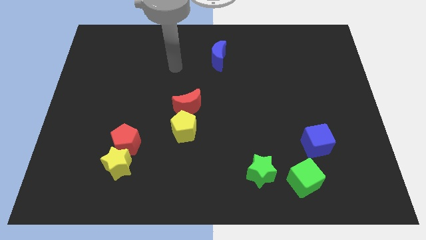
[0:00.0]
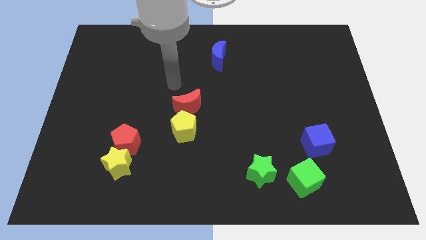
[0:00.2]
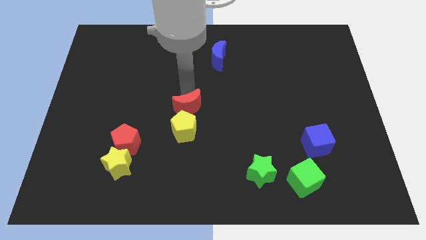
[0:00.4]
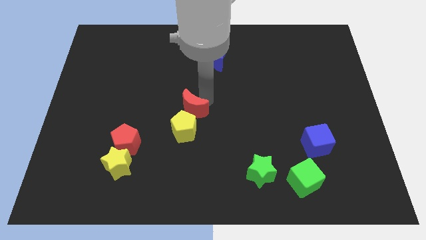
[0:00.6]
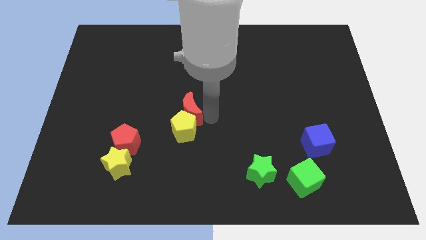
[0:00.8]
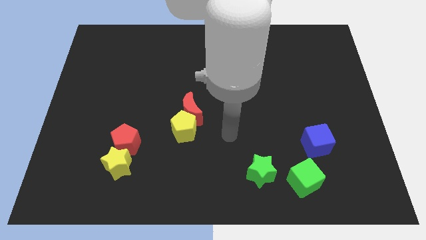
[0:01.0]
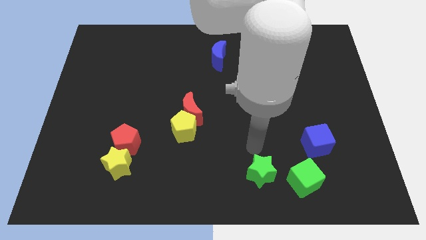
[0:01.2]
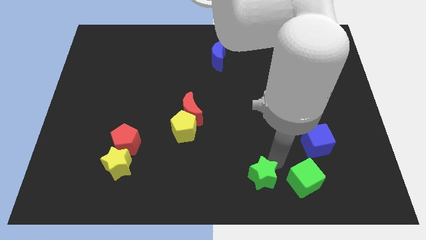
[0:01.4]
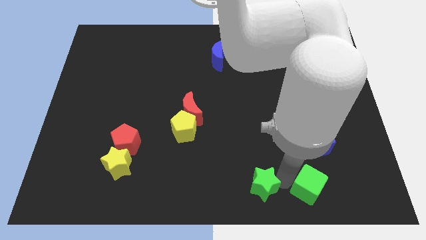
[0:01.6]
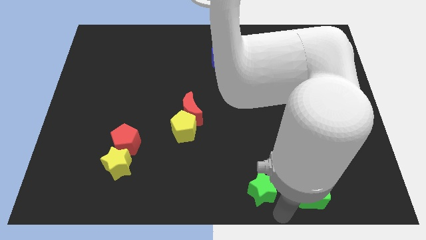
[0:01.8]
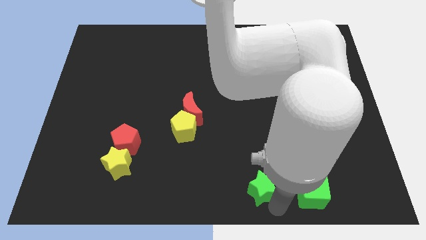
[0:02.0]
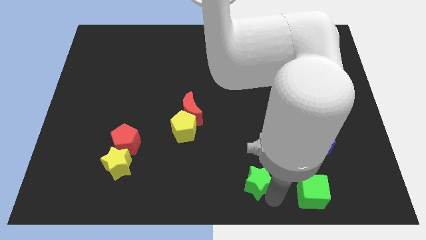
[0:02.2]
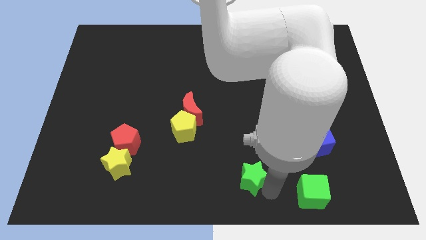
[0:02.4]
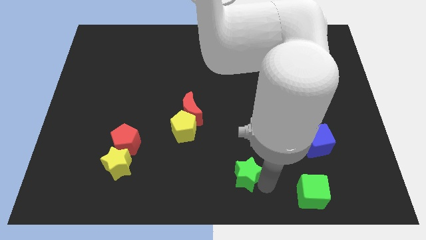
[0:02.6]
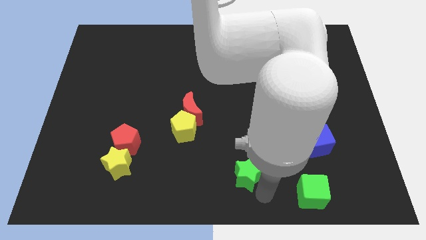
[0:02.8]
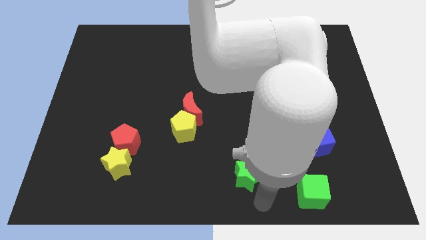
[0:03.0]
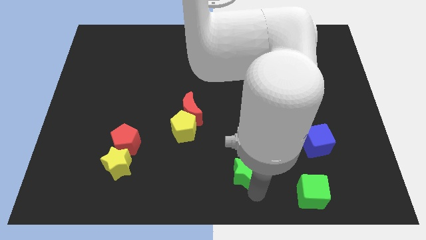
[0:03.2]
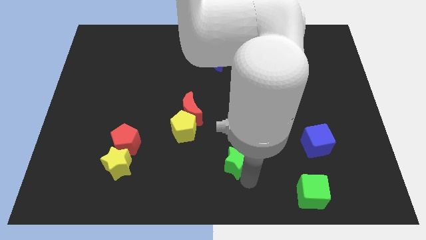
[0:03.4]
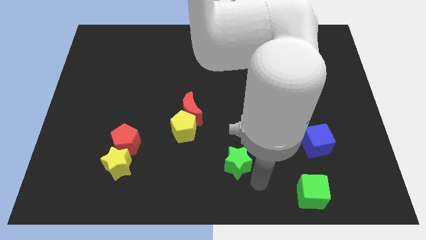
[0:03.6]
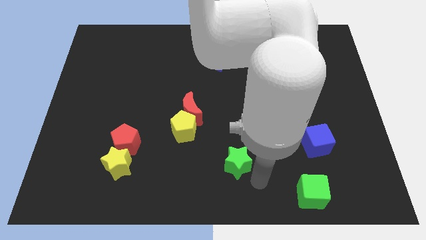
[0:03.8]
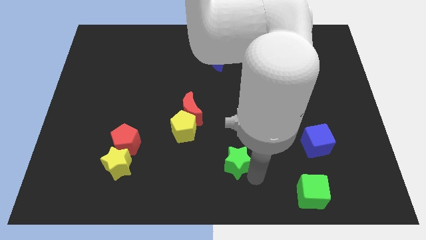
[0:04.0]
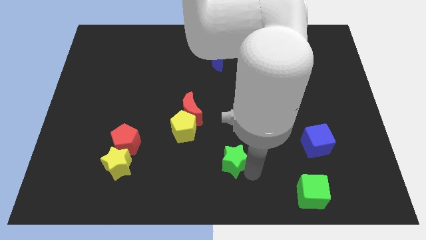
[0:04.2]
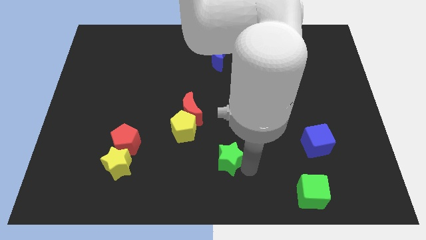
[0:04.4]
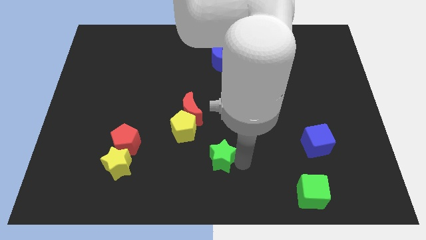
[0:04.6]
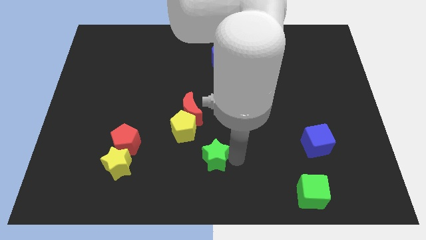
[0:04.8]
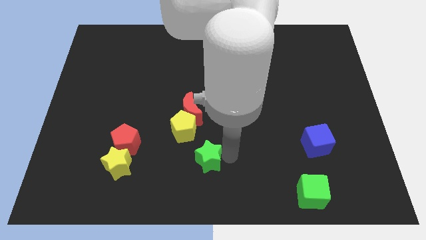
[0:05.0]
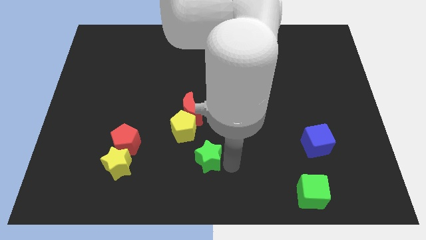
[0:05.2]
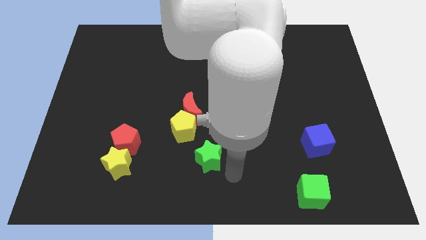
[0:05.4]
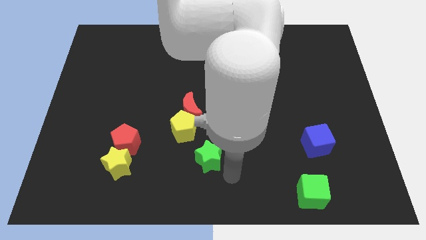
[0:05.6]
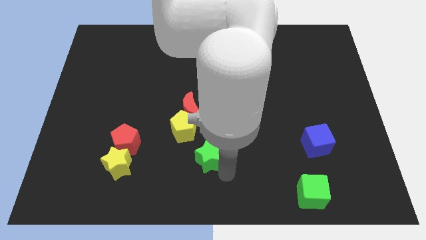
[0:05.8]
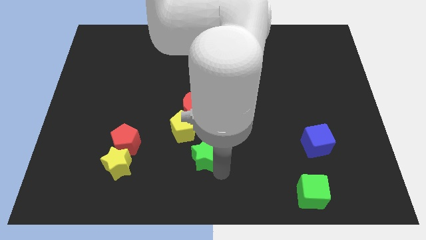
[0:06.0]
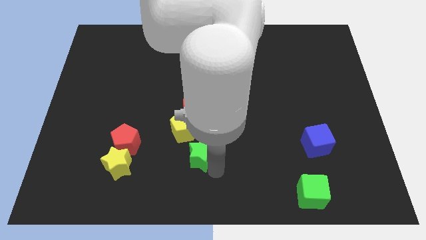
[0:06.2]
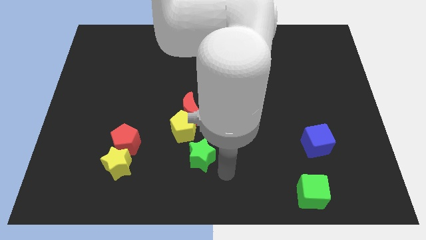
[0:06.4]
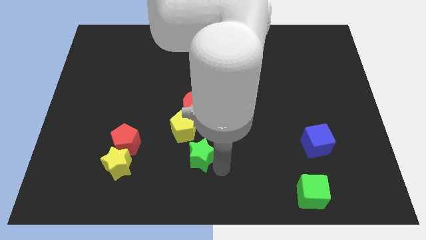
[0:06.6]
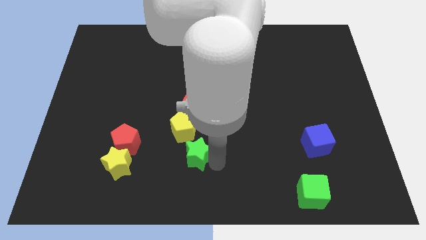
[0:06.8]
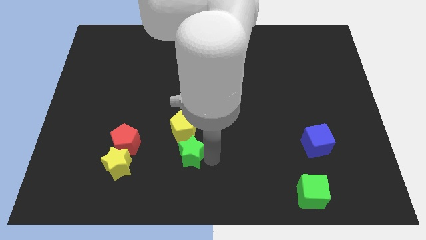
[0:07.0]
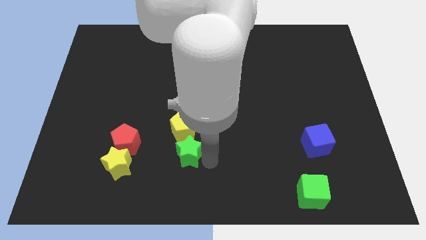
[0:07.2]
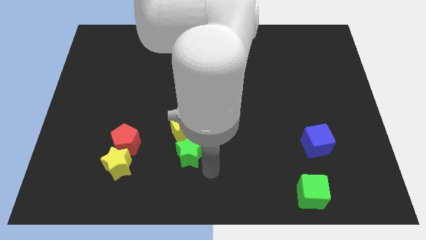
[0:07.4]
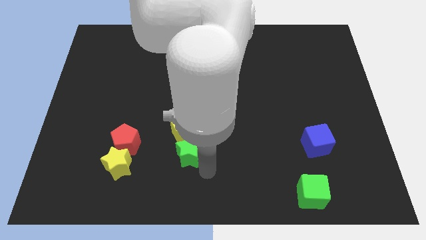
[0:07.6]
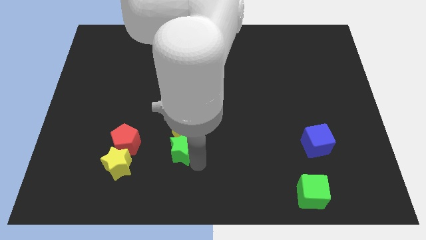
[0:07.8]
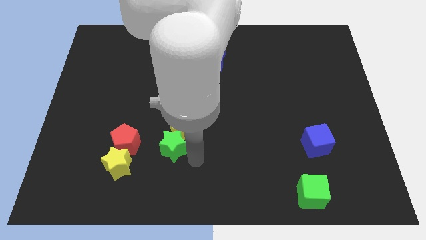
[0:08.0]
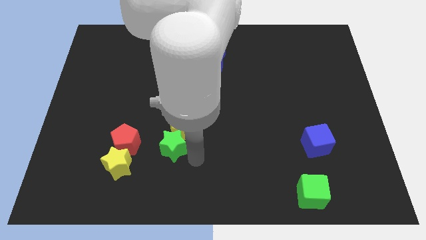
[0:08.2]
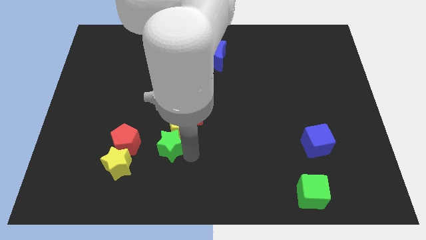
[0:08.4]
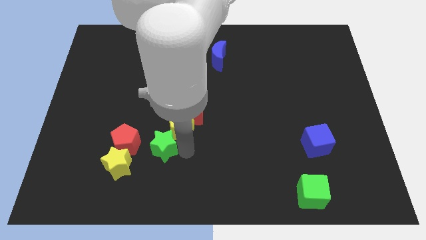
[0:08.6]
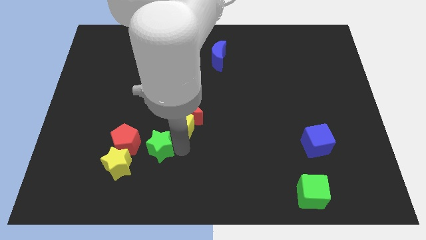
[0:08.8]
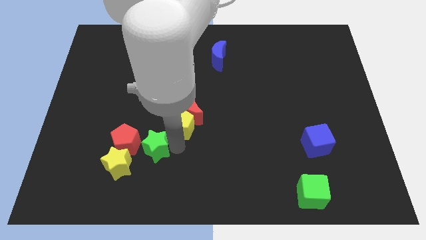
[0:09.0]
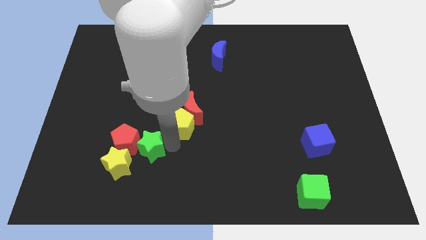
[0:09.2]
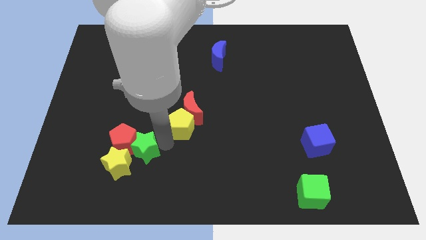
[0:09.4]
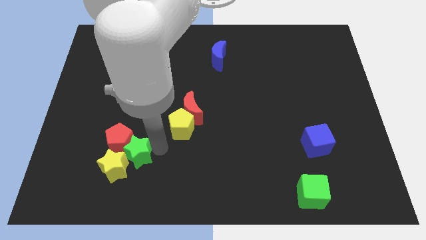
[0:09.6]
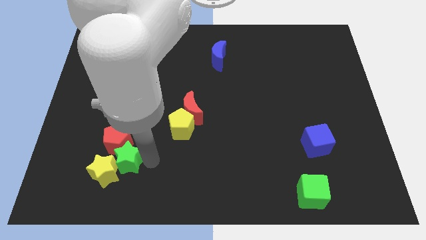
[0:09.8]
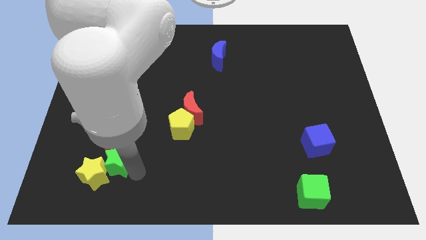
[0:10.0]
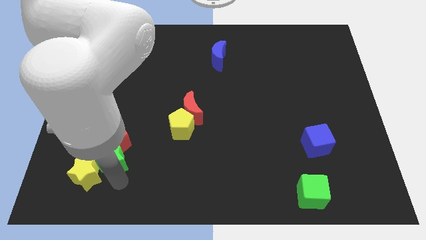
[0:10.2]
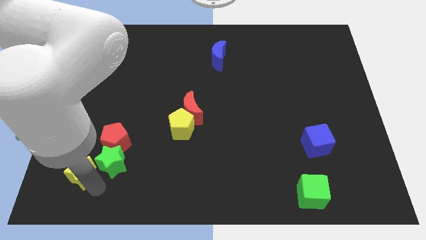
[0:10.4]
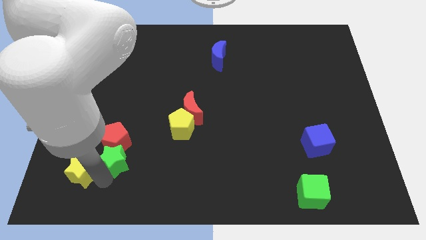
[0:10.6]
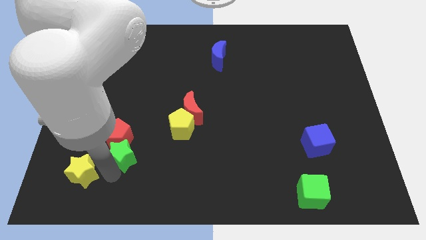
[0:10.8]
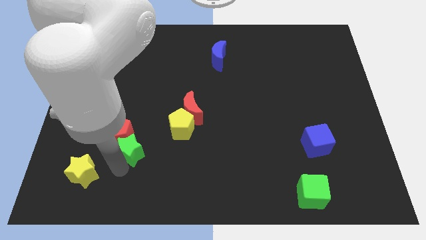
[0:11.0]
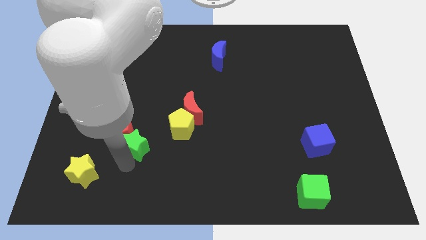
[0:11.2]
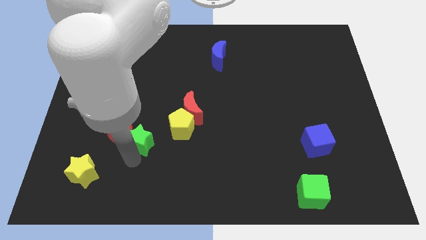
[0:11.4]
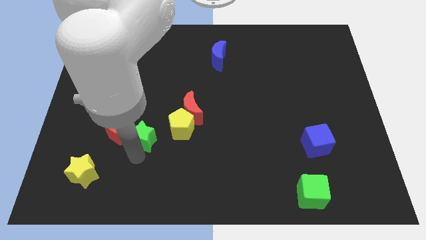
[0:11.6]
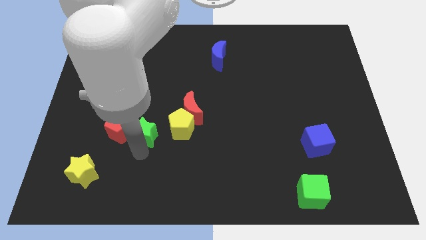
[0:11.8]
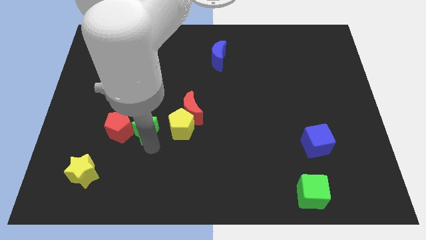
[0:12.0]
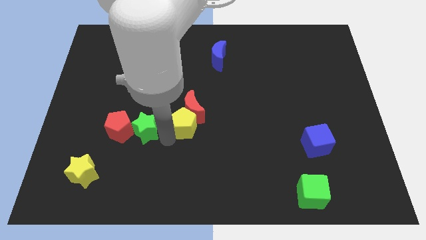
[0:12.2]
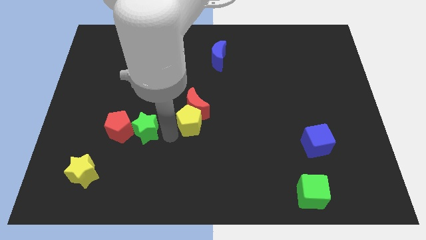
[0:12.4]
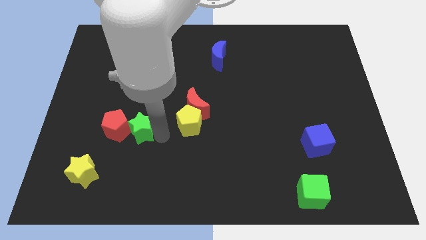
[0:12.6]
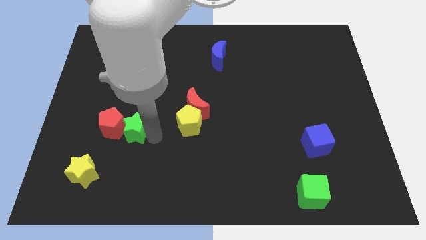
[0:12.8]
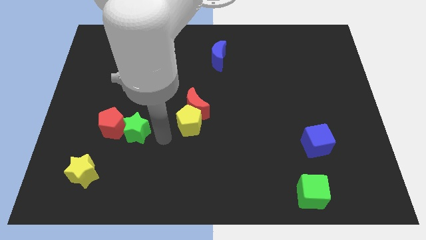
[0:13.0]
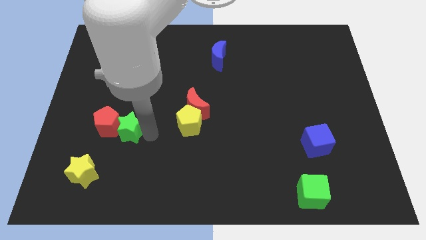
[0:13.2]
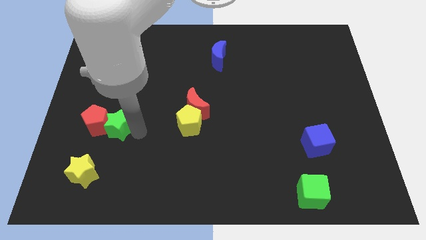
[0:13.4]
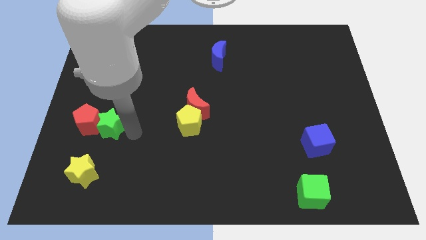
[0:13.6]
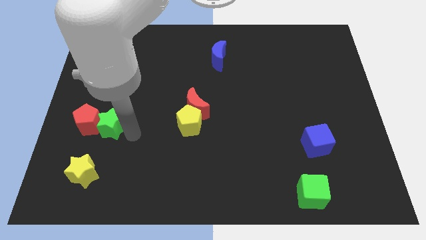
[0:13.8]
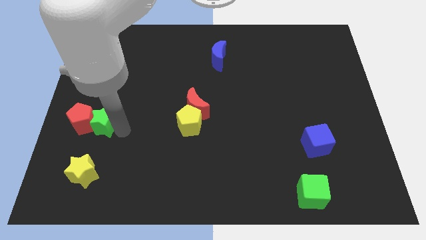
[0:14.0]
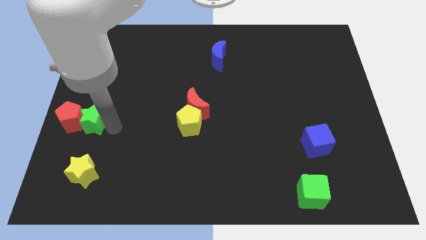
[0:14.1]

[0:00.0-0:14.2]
slide the green star to the left side of the board
